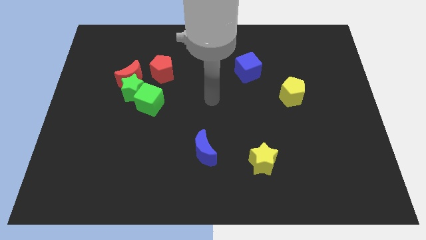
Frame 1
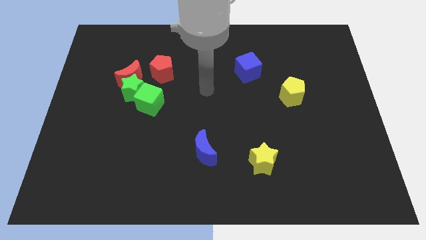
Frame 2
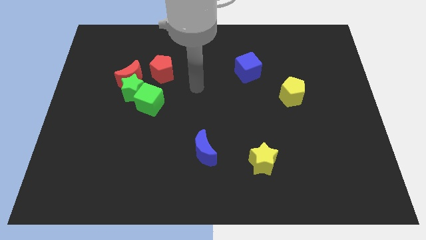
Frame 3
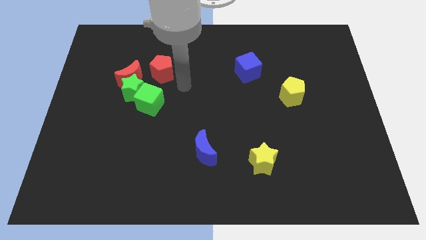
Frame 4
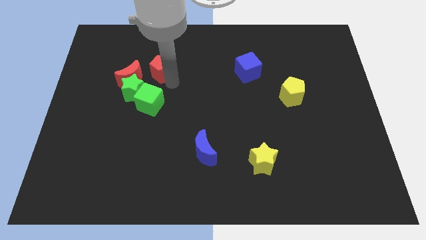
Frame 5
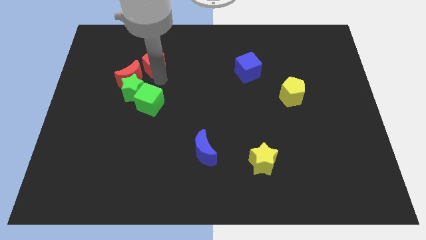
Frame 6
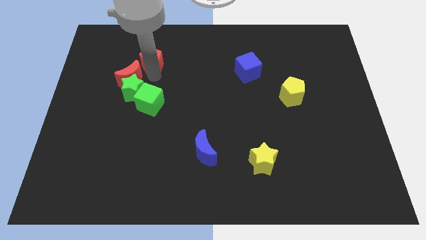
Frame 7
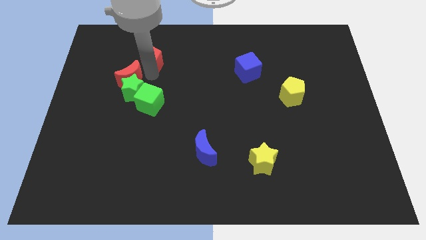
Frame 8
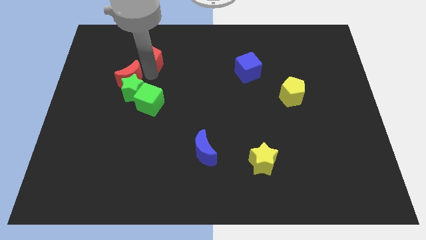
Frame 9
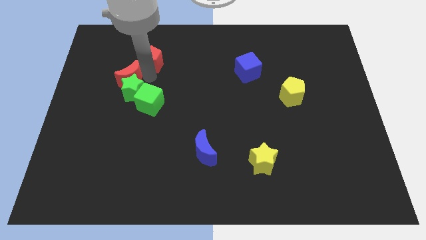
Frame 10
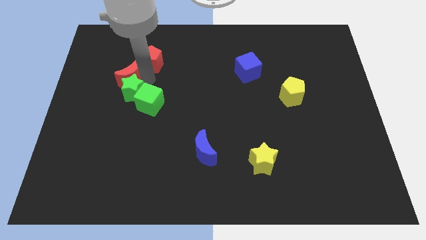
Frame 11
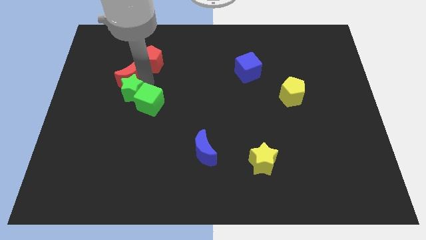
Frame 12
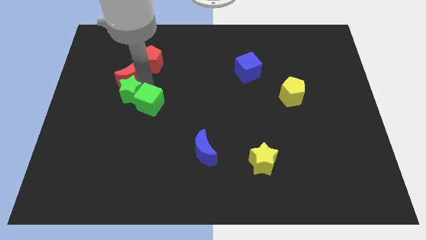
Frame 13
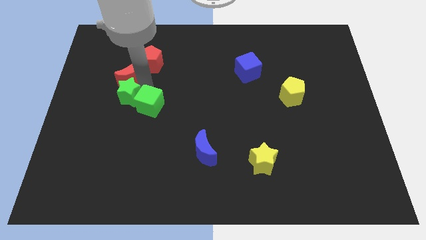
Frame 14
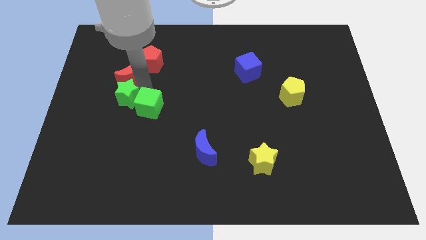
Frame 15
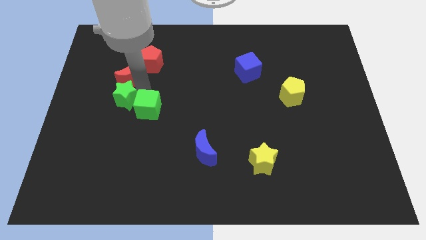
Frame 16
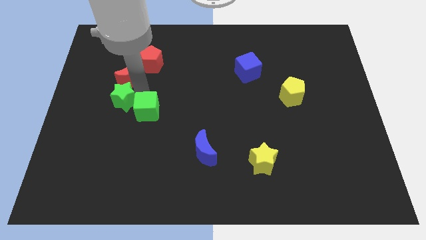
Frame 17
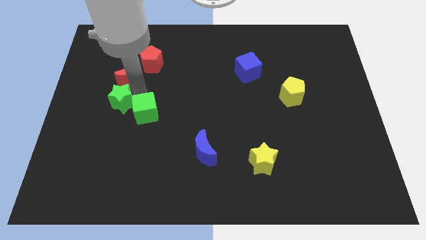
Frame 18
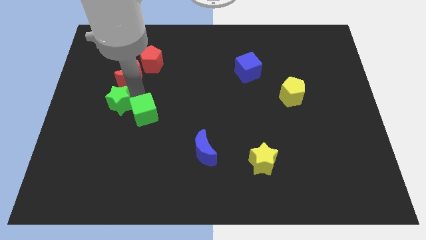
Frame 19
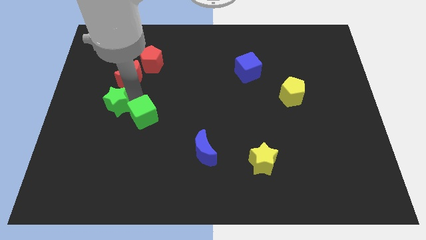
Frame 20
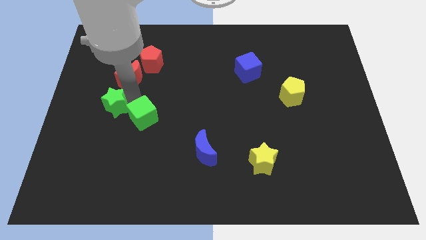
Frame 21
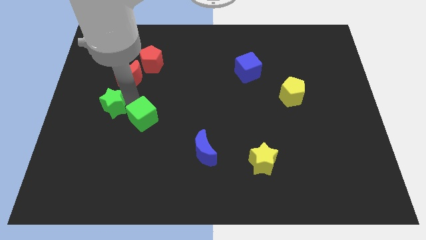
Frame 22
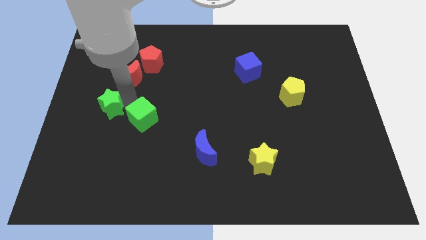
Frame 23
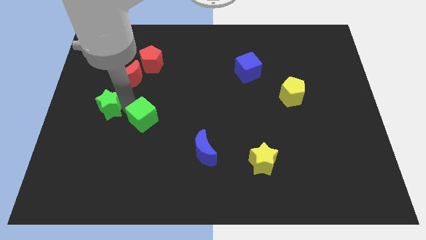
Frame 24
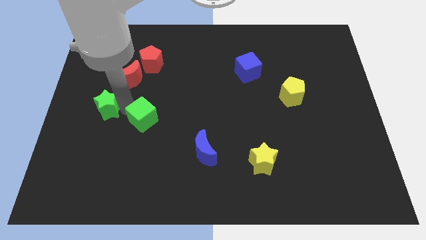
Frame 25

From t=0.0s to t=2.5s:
pull the green star apart from the group of blocks

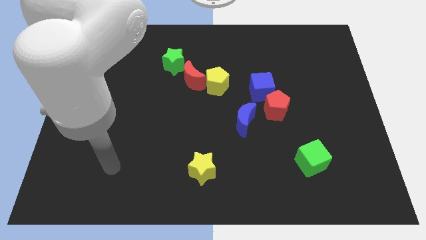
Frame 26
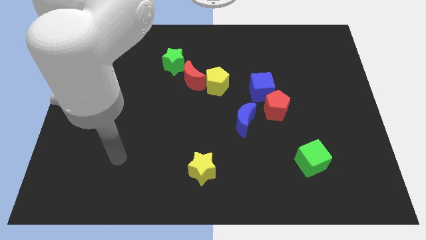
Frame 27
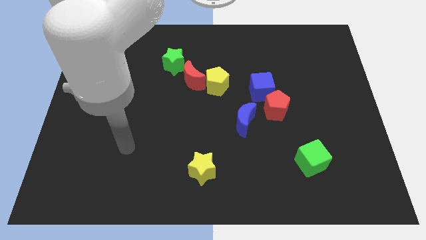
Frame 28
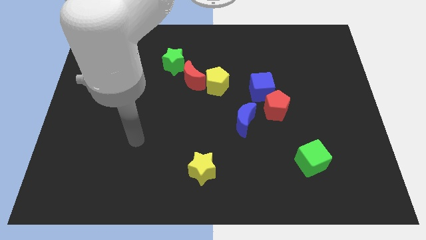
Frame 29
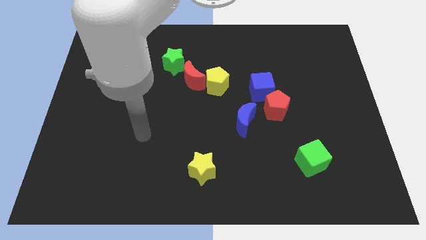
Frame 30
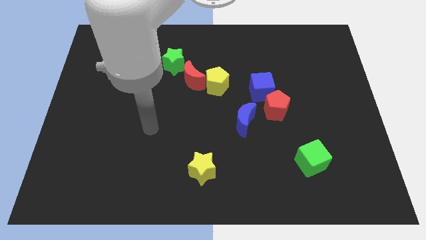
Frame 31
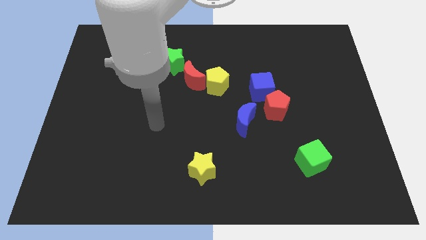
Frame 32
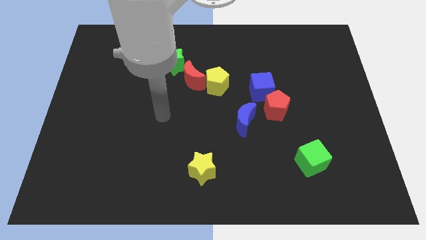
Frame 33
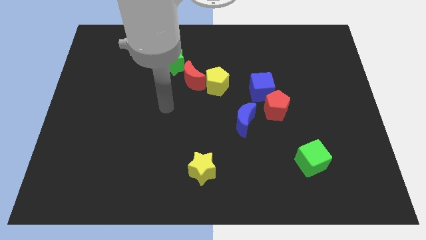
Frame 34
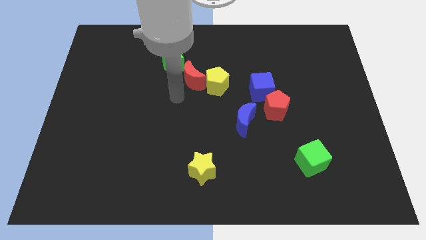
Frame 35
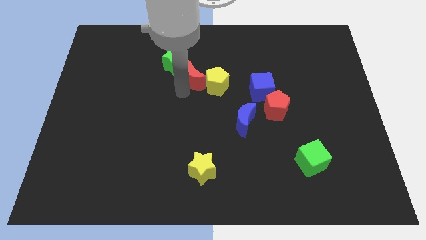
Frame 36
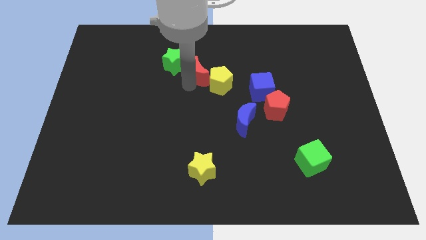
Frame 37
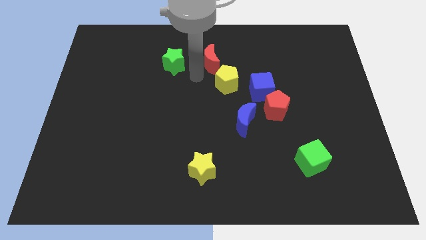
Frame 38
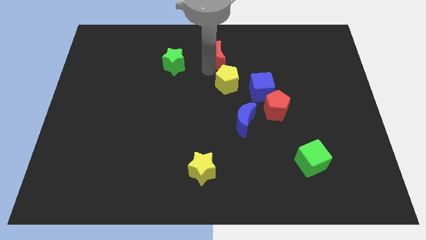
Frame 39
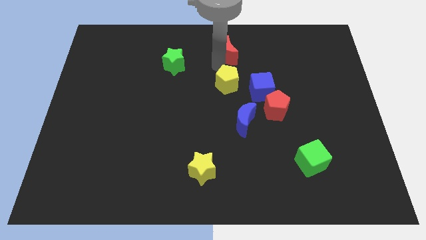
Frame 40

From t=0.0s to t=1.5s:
separate the yellow pentagon from the red moon

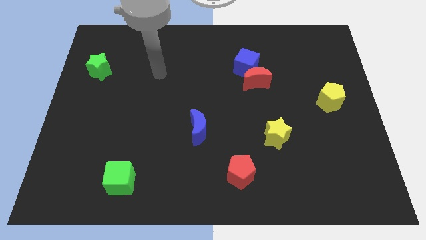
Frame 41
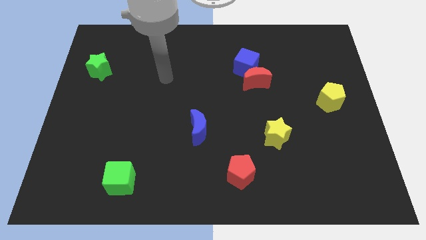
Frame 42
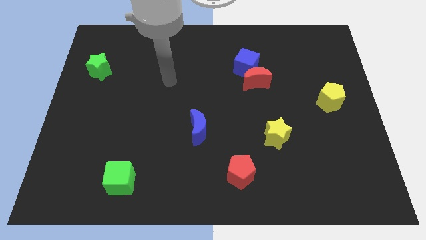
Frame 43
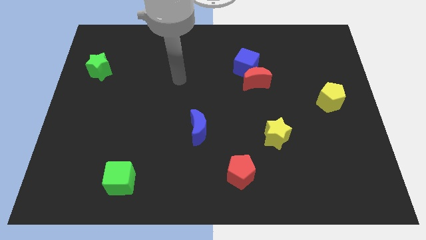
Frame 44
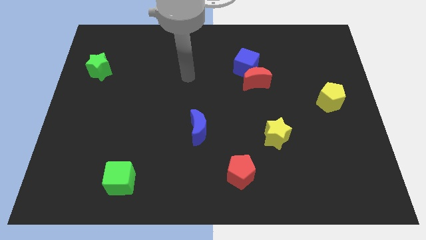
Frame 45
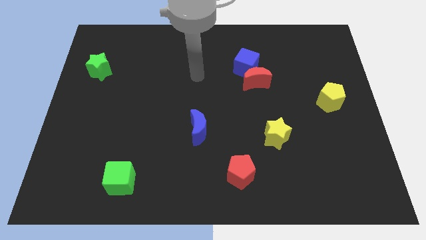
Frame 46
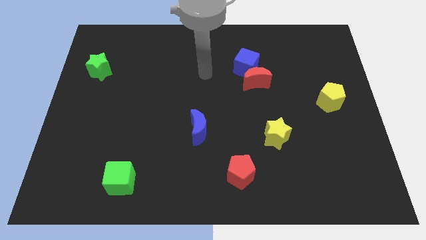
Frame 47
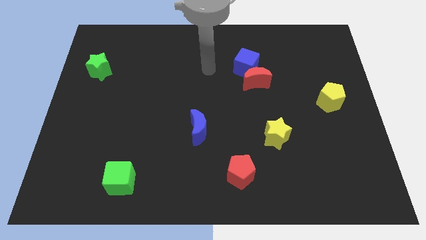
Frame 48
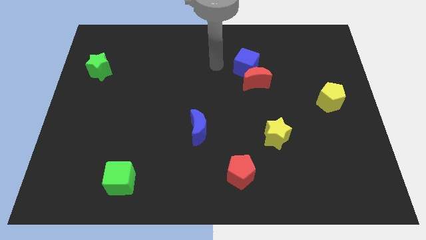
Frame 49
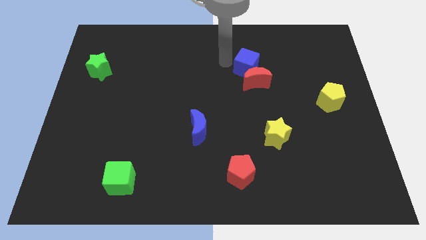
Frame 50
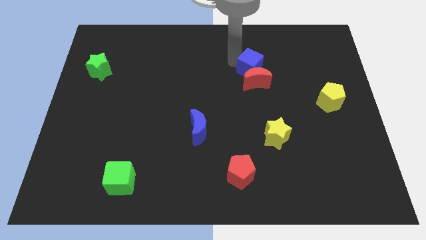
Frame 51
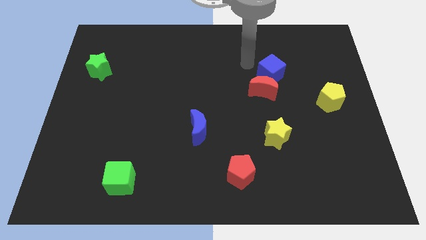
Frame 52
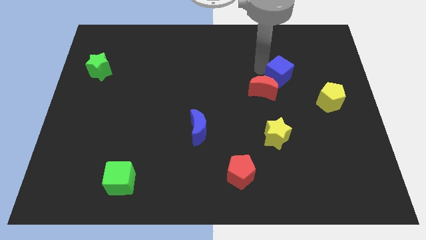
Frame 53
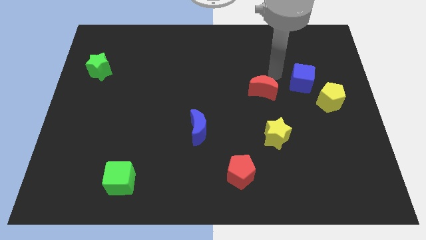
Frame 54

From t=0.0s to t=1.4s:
pull the red moon apart from the blue cube

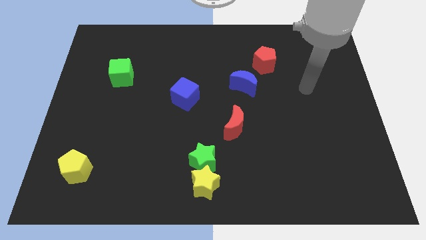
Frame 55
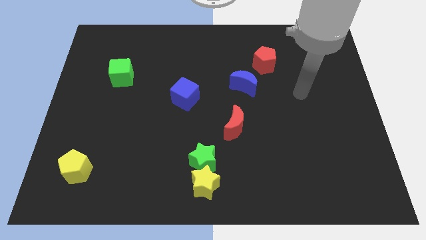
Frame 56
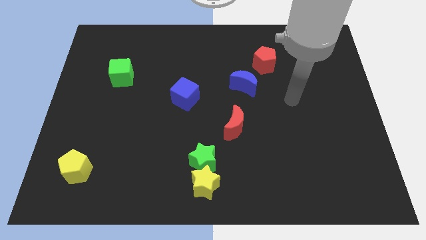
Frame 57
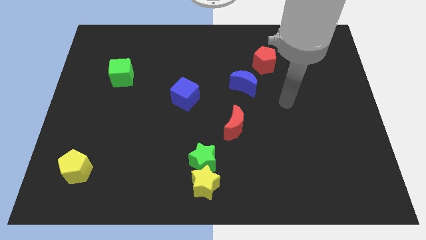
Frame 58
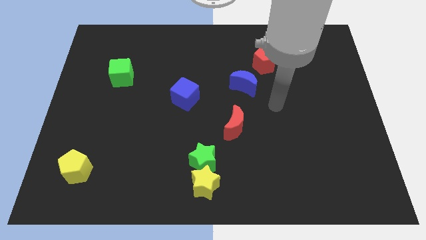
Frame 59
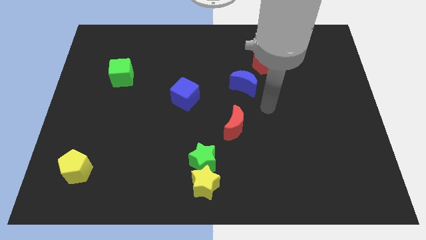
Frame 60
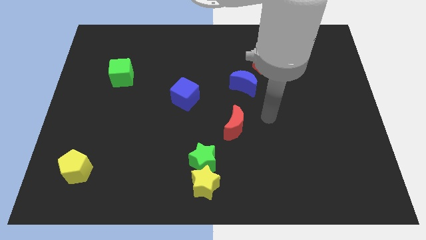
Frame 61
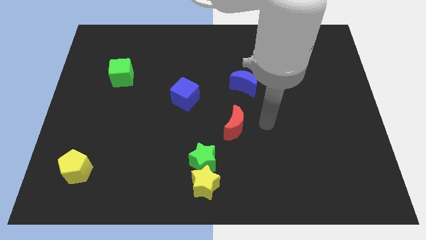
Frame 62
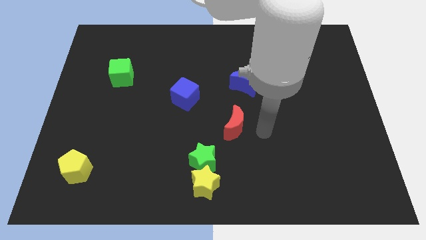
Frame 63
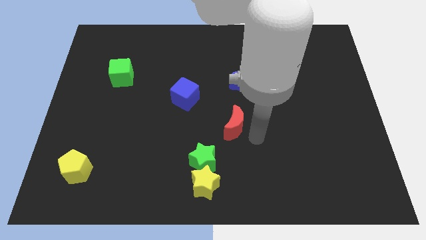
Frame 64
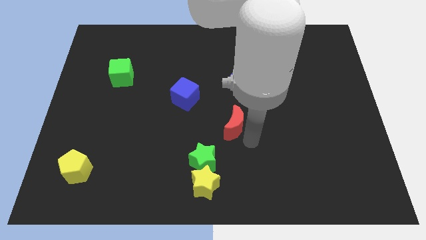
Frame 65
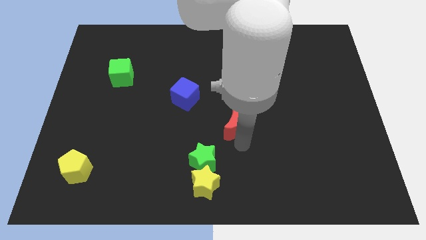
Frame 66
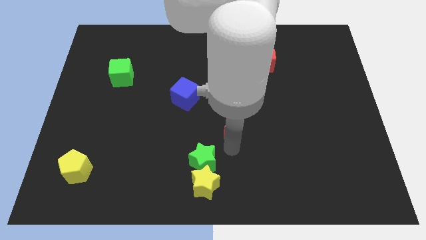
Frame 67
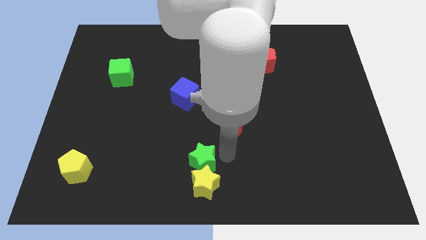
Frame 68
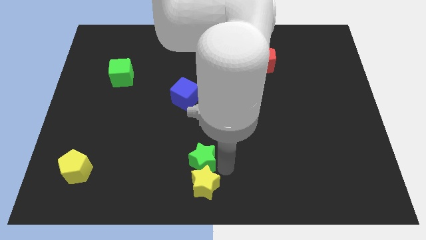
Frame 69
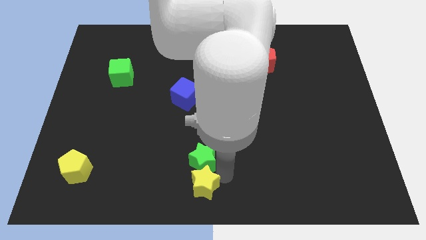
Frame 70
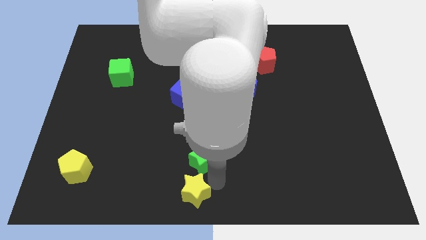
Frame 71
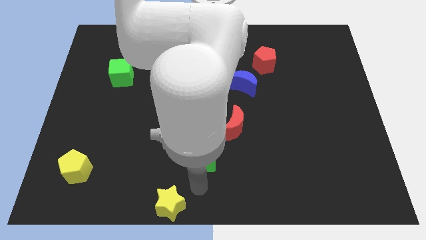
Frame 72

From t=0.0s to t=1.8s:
pull the green star apart from the yellow star

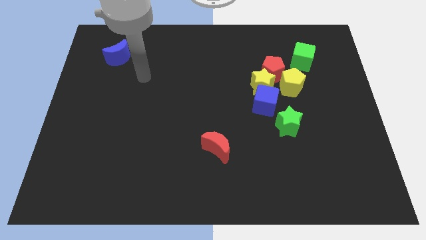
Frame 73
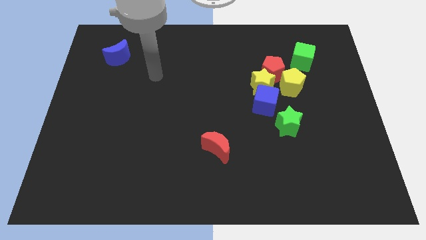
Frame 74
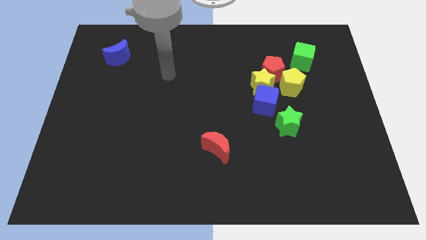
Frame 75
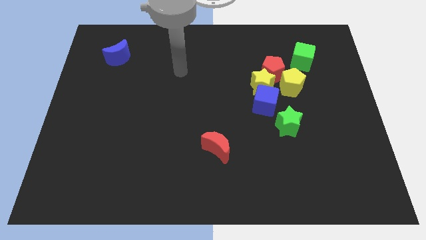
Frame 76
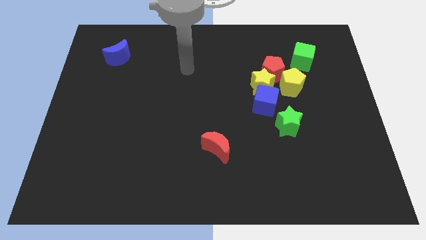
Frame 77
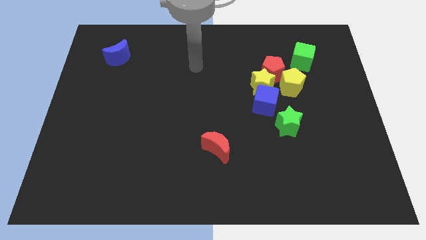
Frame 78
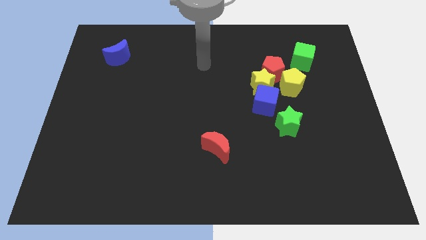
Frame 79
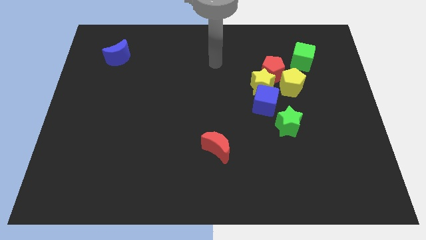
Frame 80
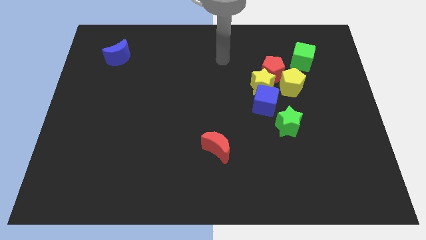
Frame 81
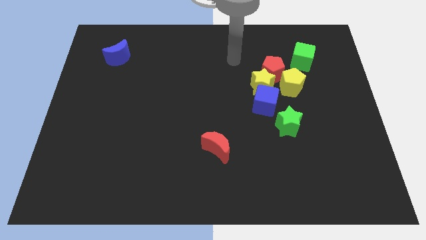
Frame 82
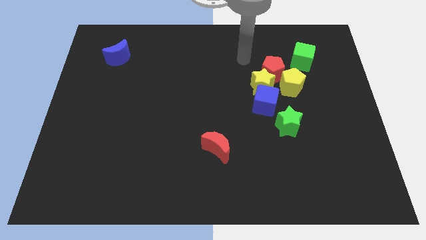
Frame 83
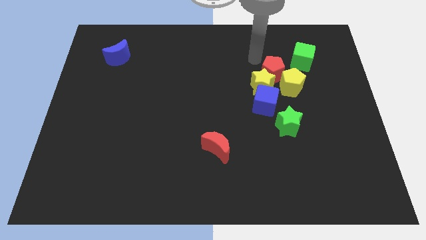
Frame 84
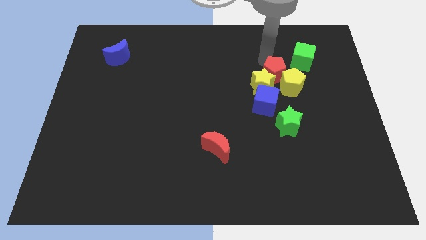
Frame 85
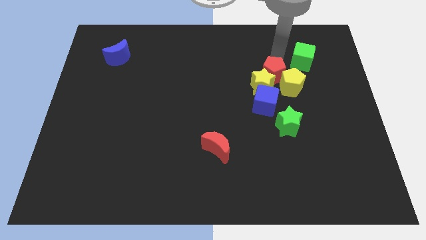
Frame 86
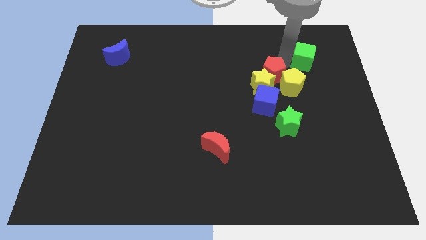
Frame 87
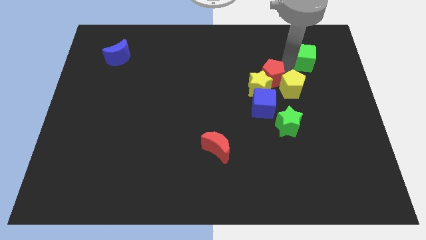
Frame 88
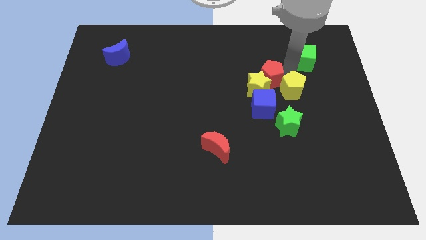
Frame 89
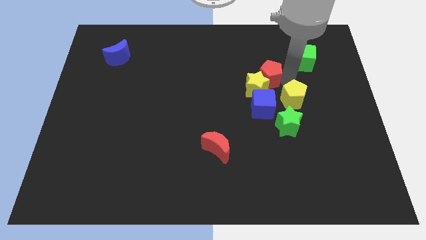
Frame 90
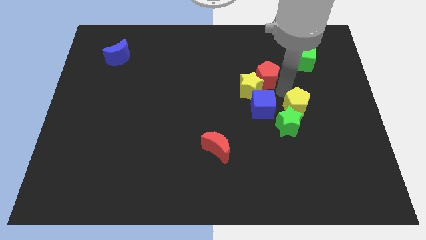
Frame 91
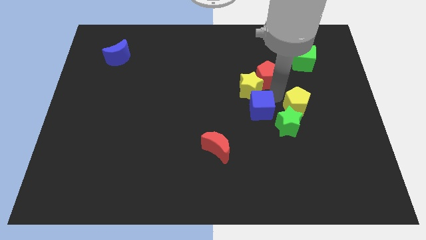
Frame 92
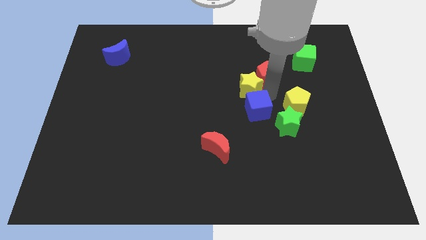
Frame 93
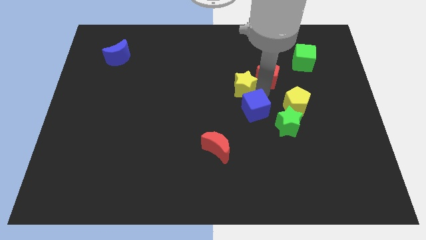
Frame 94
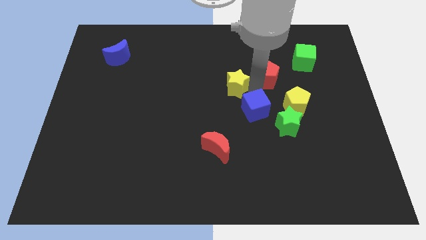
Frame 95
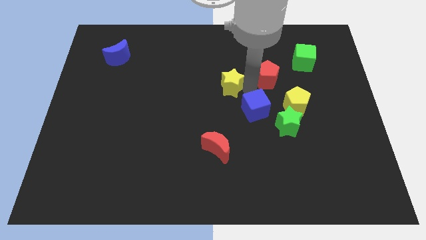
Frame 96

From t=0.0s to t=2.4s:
separate the yellow star from the clump

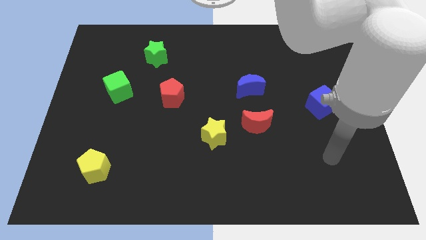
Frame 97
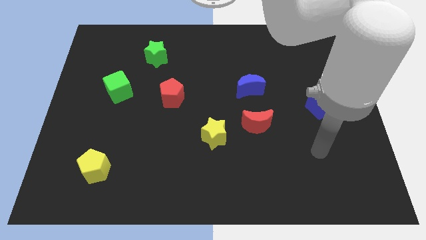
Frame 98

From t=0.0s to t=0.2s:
separate the red moon from the yellow star
